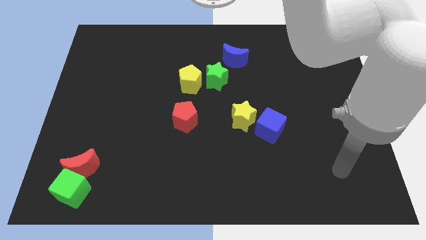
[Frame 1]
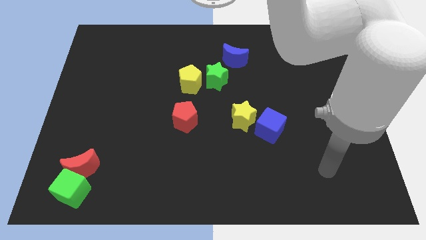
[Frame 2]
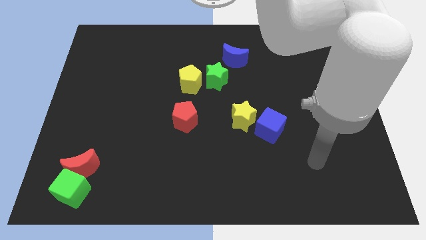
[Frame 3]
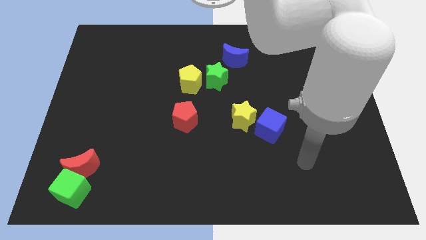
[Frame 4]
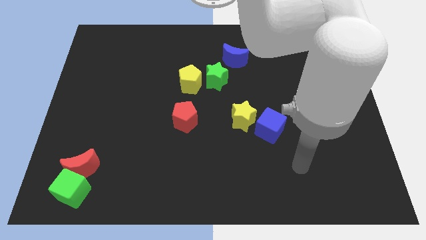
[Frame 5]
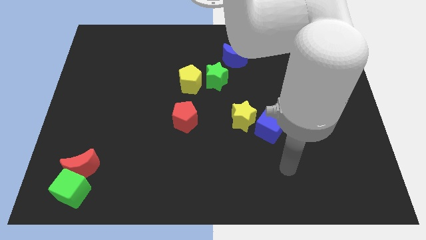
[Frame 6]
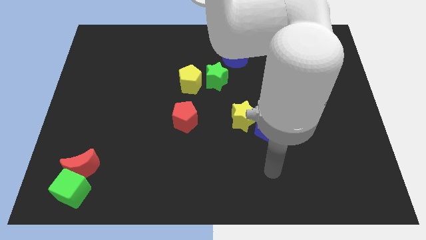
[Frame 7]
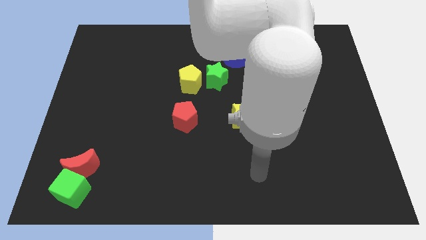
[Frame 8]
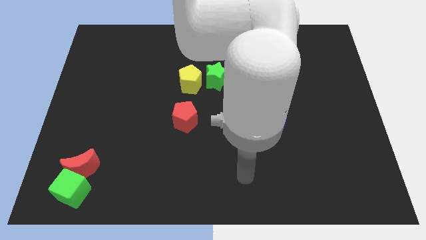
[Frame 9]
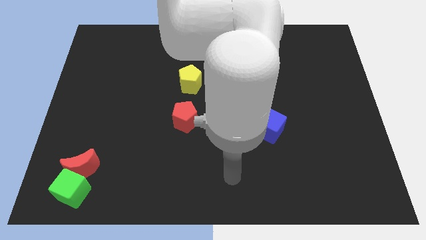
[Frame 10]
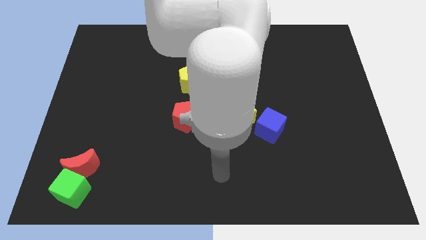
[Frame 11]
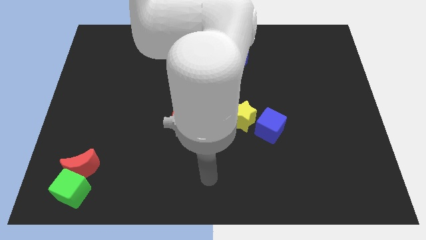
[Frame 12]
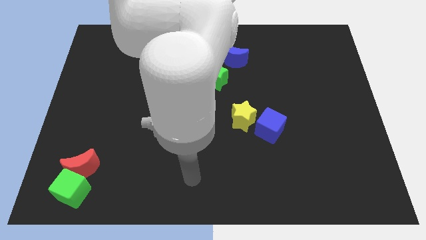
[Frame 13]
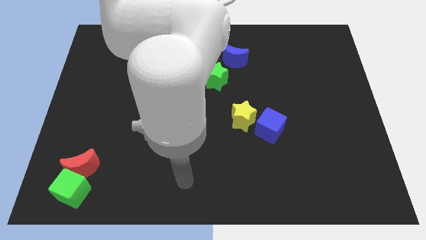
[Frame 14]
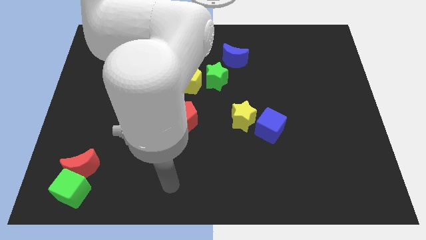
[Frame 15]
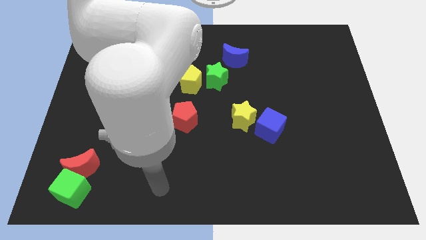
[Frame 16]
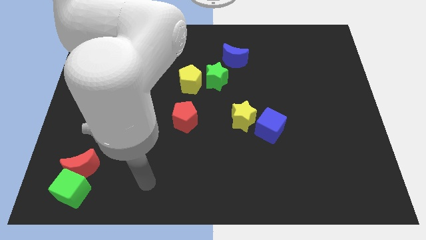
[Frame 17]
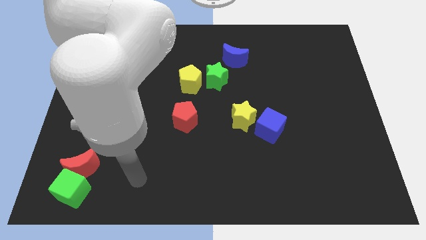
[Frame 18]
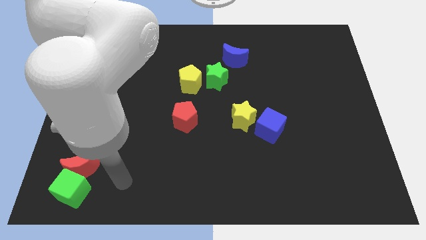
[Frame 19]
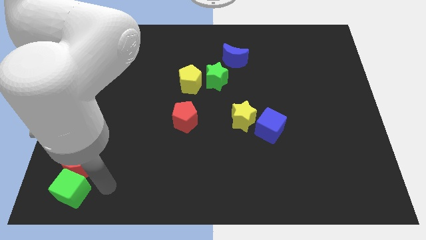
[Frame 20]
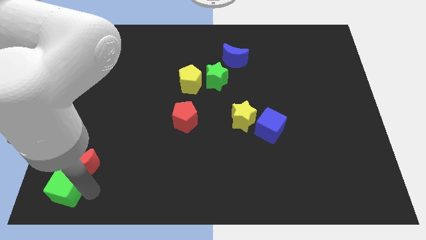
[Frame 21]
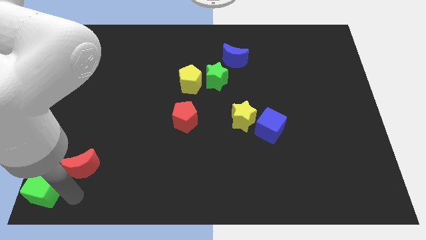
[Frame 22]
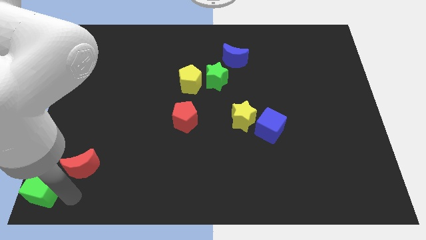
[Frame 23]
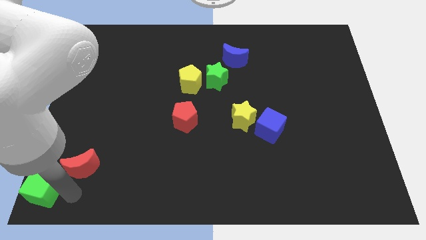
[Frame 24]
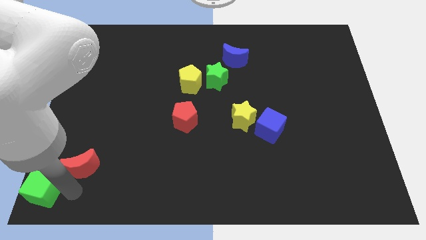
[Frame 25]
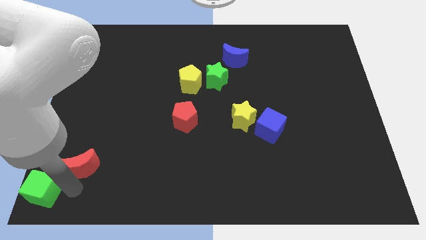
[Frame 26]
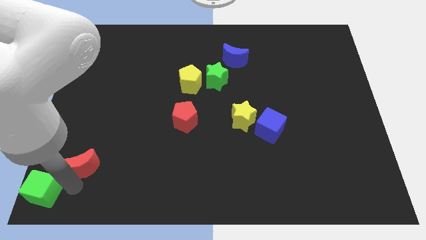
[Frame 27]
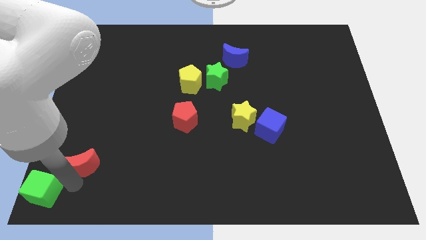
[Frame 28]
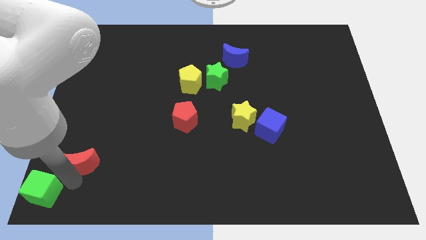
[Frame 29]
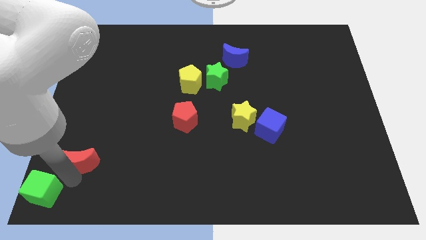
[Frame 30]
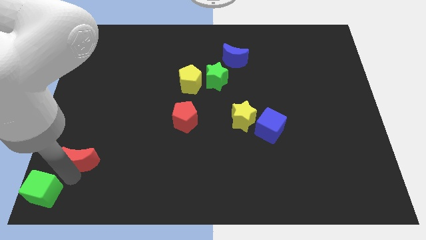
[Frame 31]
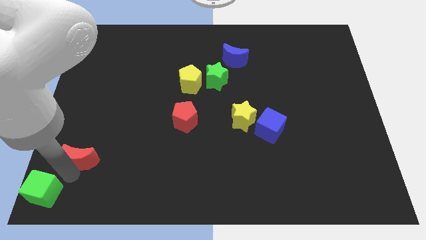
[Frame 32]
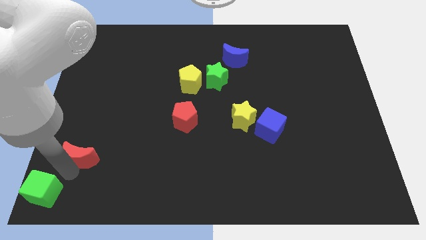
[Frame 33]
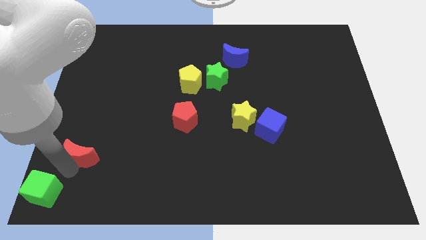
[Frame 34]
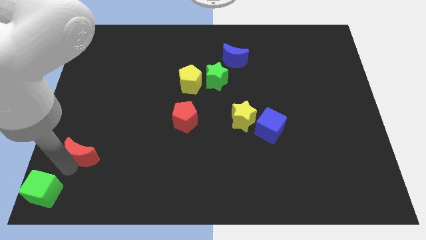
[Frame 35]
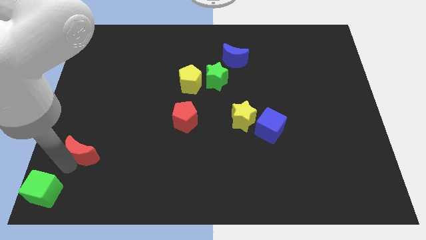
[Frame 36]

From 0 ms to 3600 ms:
move the red moon away from the green cube

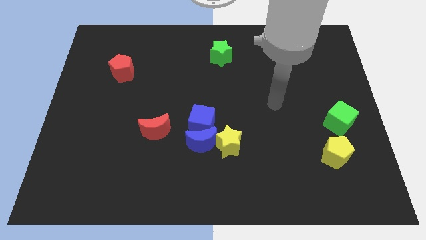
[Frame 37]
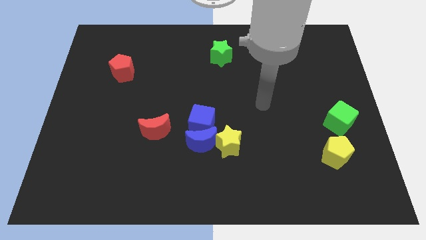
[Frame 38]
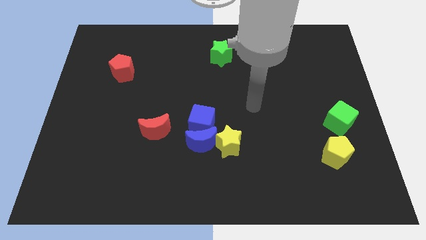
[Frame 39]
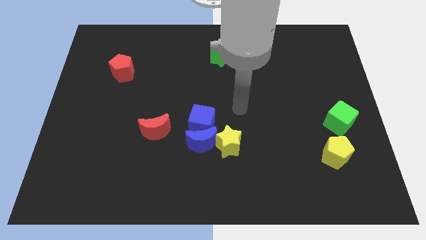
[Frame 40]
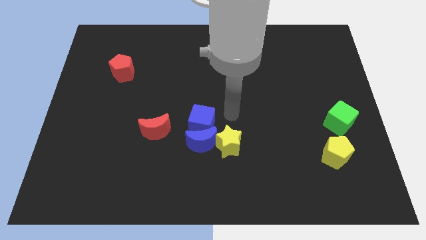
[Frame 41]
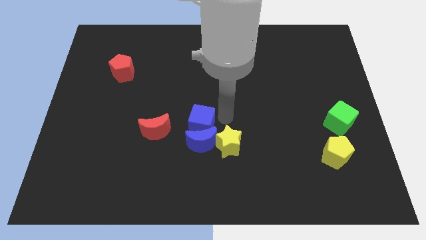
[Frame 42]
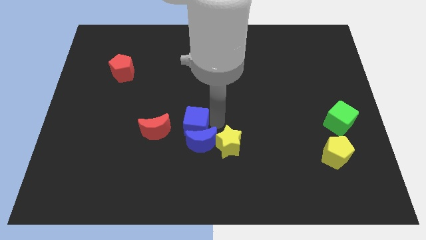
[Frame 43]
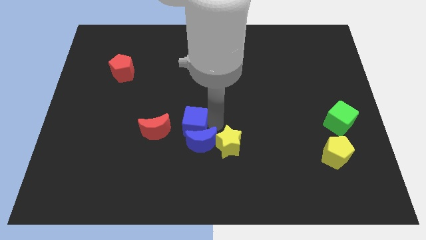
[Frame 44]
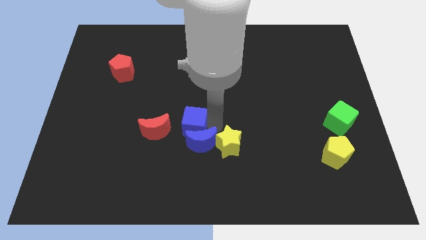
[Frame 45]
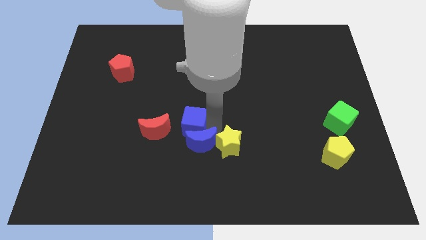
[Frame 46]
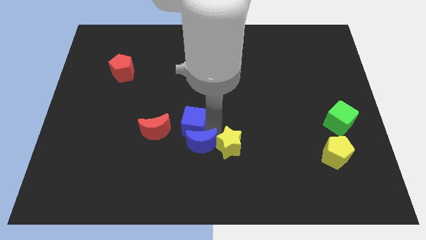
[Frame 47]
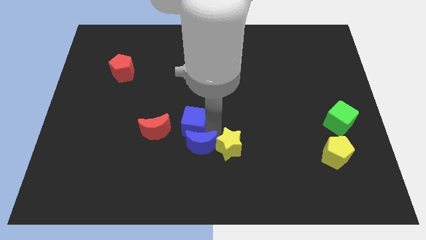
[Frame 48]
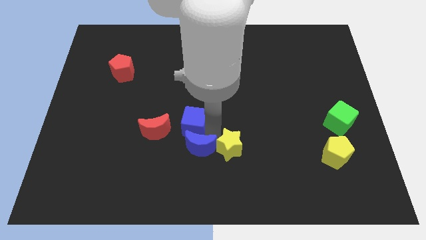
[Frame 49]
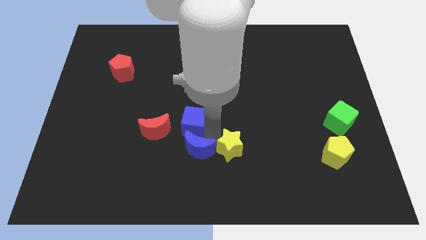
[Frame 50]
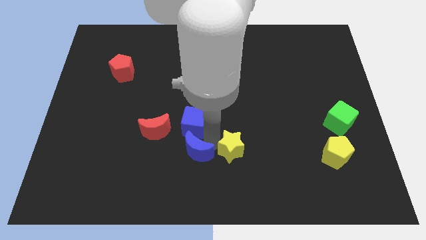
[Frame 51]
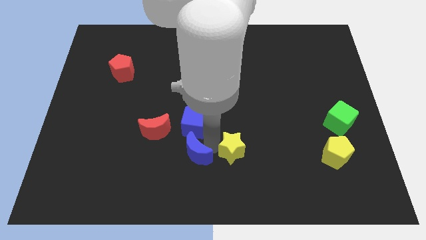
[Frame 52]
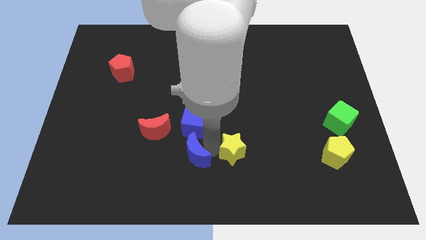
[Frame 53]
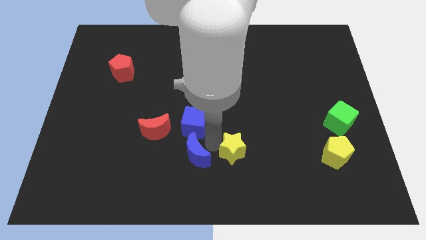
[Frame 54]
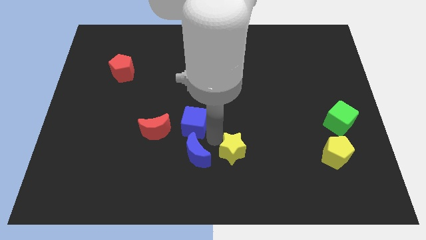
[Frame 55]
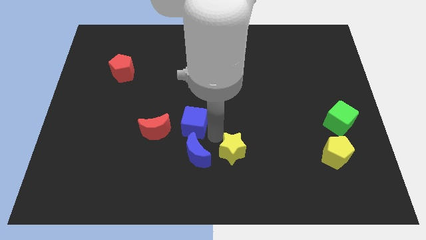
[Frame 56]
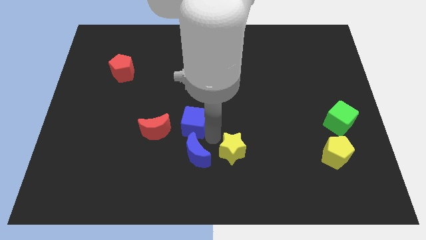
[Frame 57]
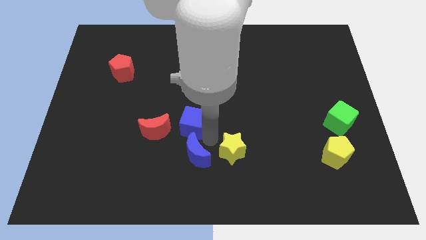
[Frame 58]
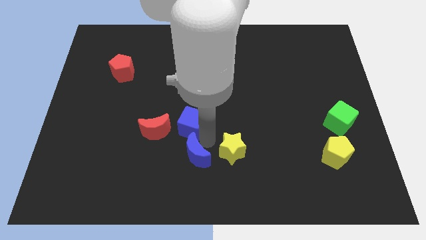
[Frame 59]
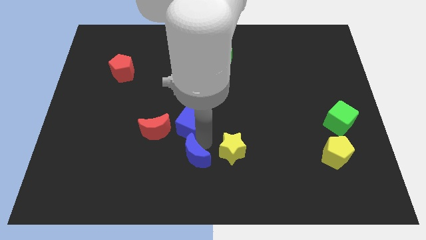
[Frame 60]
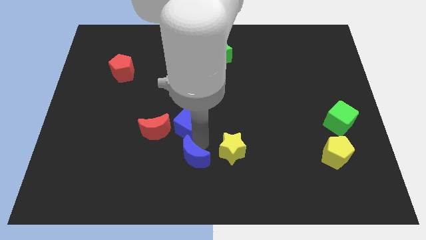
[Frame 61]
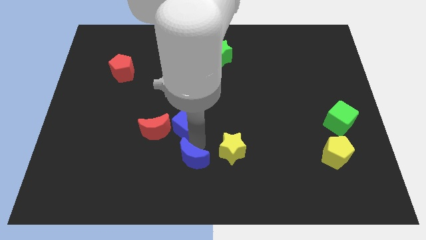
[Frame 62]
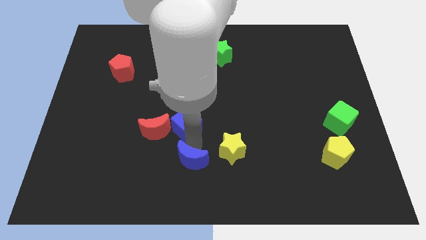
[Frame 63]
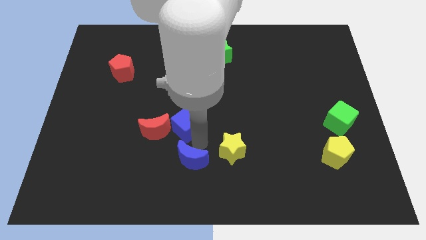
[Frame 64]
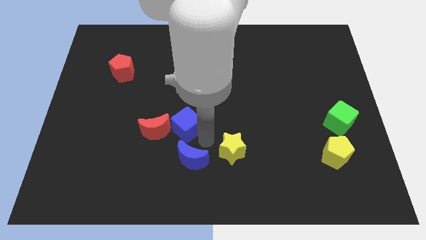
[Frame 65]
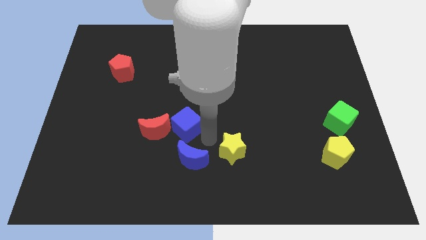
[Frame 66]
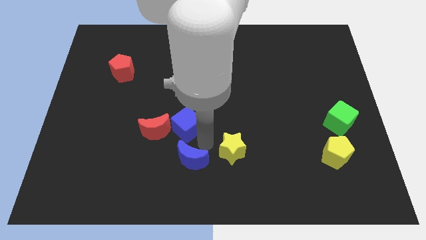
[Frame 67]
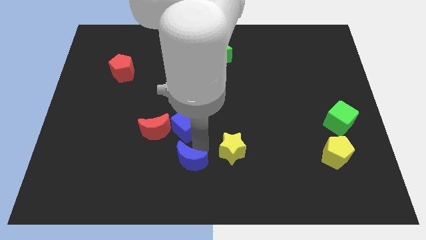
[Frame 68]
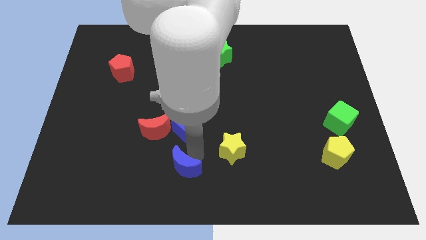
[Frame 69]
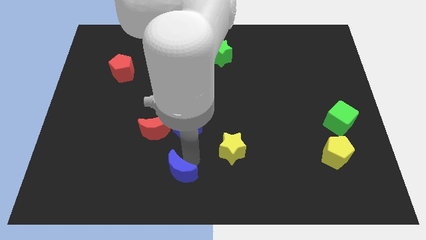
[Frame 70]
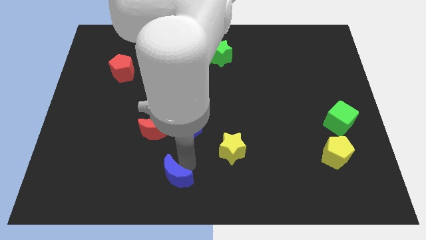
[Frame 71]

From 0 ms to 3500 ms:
pull the blue moon apart from the blue cube and yellow star

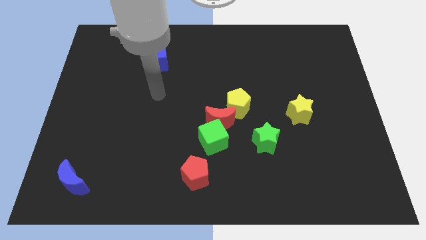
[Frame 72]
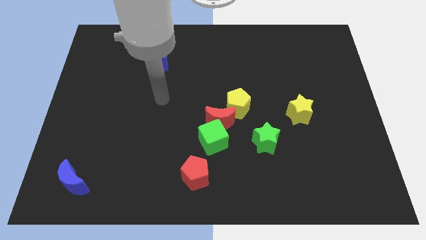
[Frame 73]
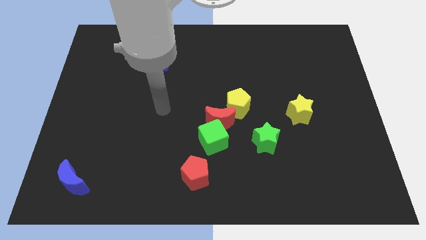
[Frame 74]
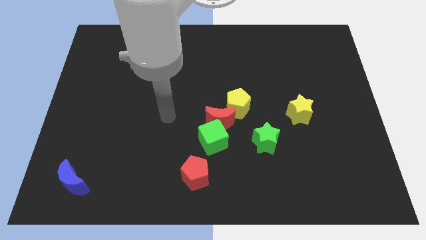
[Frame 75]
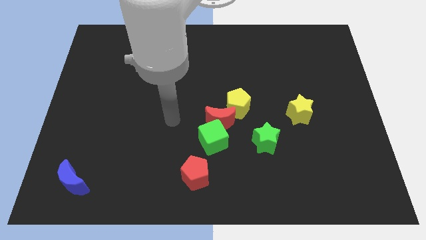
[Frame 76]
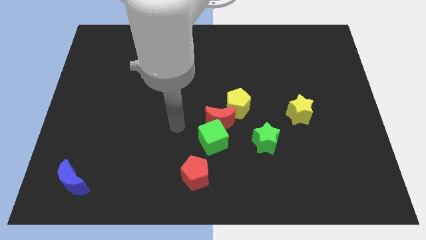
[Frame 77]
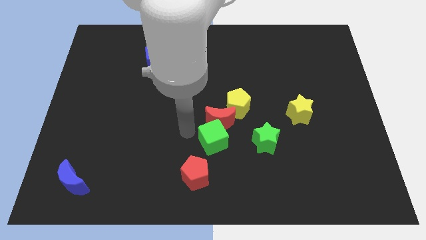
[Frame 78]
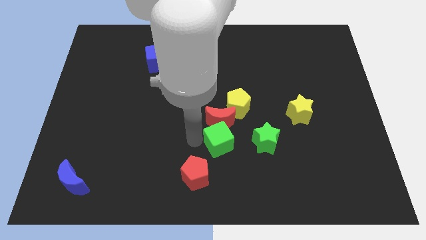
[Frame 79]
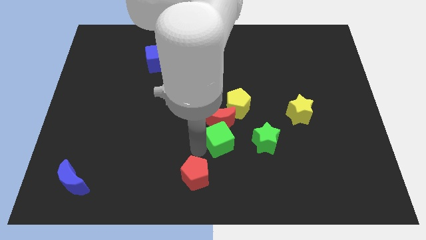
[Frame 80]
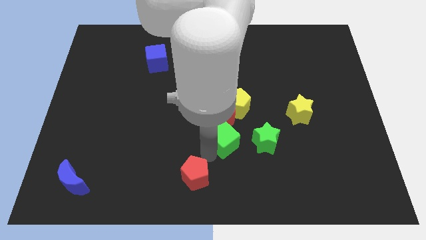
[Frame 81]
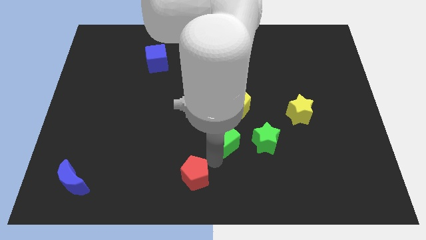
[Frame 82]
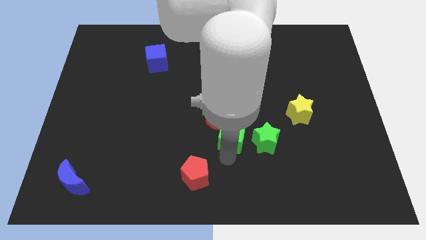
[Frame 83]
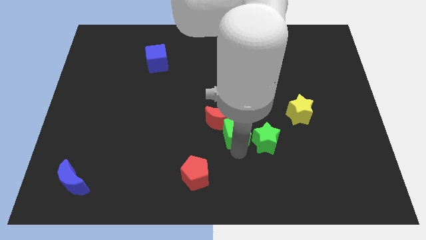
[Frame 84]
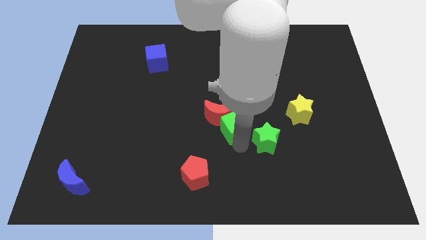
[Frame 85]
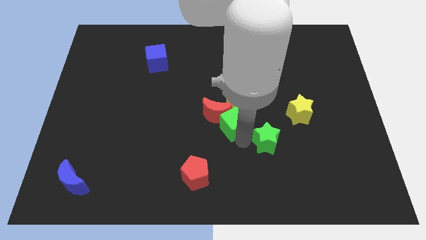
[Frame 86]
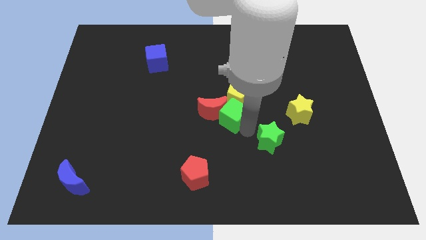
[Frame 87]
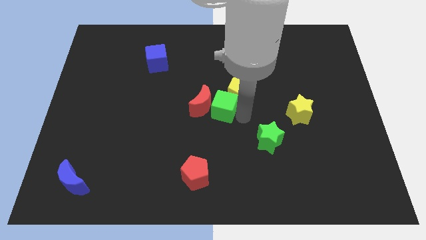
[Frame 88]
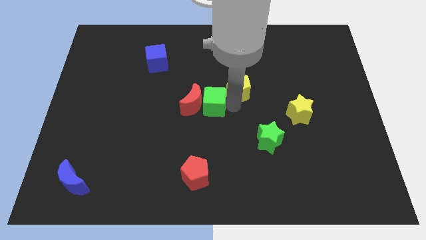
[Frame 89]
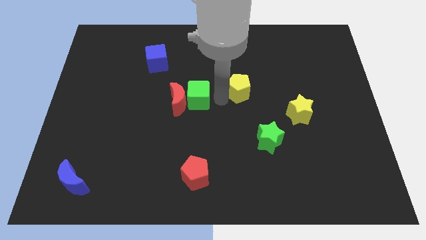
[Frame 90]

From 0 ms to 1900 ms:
move the red moon away from the green cube and yellow pentagon

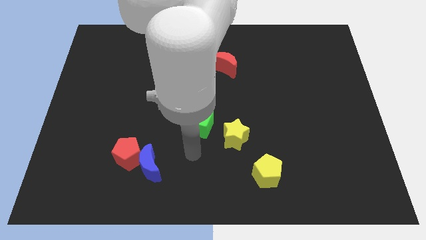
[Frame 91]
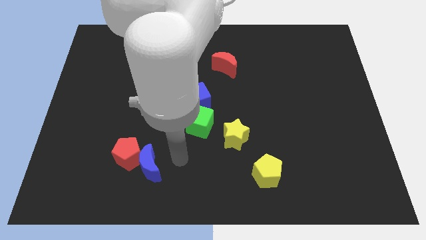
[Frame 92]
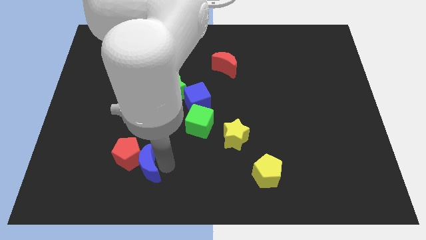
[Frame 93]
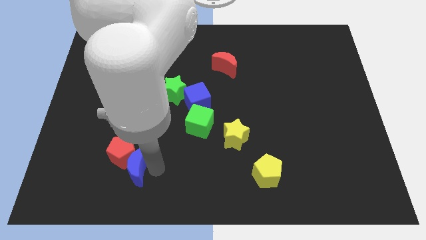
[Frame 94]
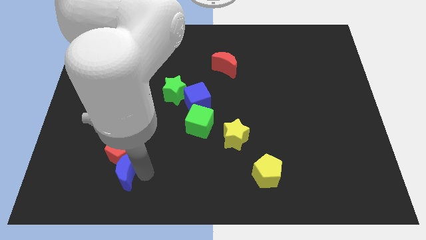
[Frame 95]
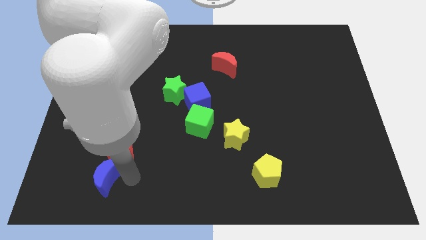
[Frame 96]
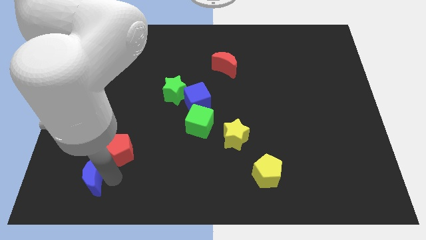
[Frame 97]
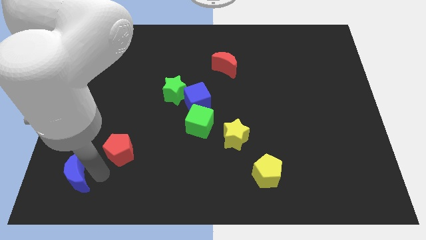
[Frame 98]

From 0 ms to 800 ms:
move the red pentagon away from the blue moon
